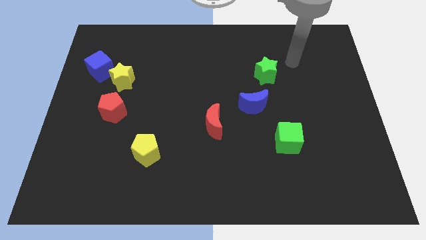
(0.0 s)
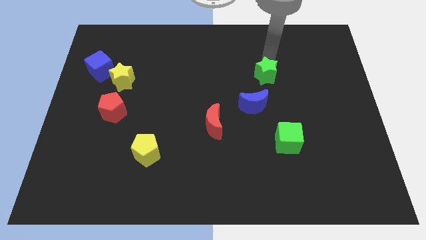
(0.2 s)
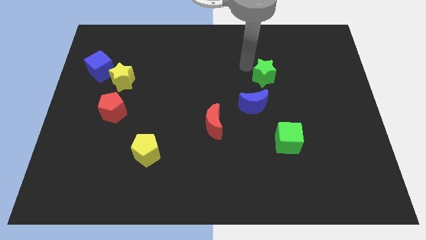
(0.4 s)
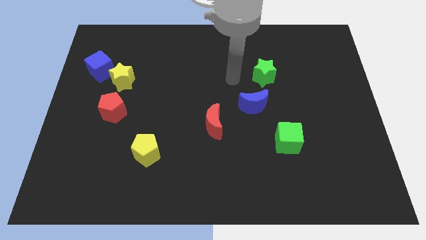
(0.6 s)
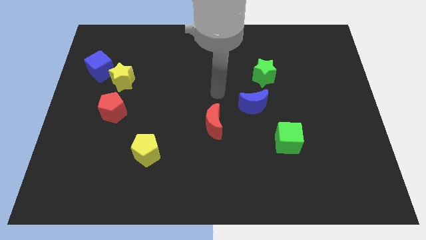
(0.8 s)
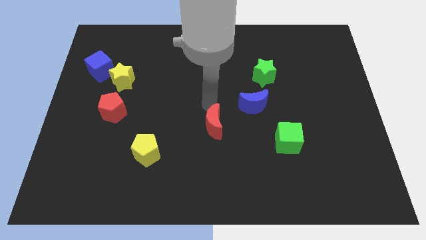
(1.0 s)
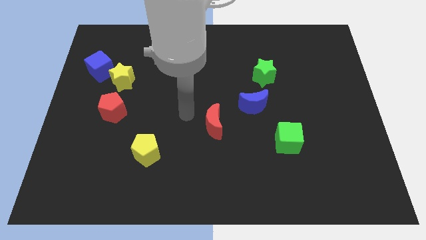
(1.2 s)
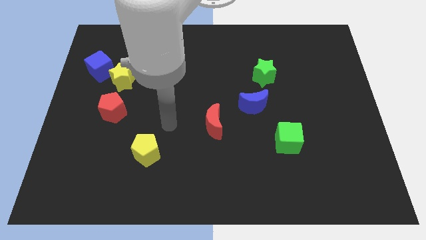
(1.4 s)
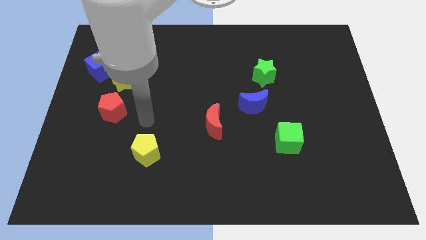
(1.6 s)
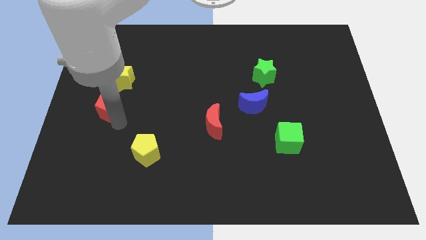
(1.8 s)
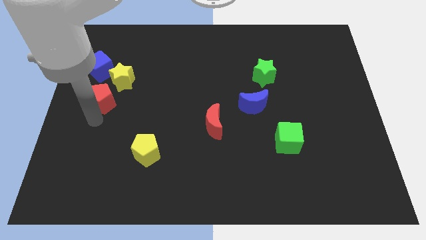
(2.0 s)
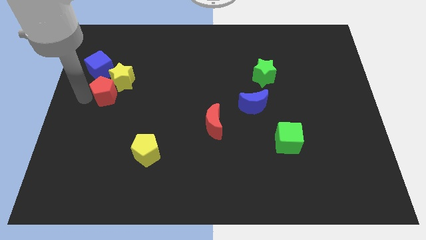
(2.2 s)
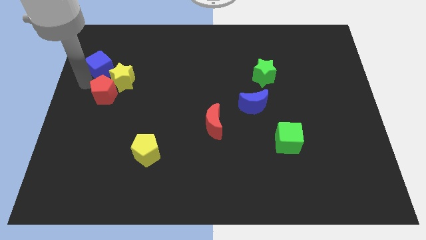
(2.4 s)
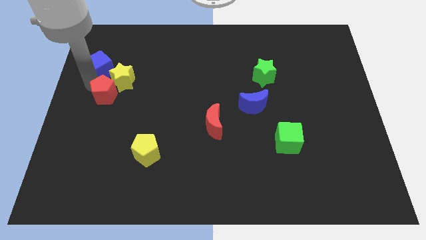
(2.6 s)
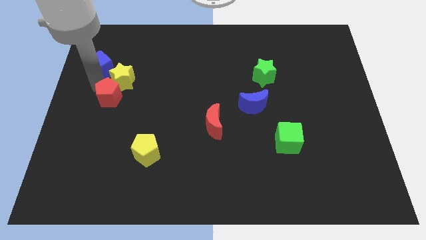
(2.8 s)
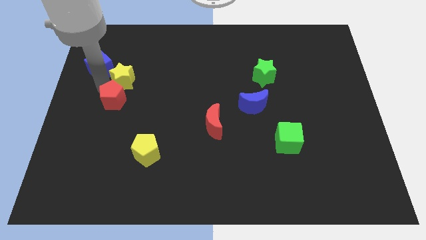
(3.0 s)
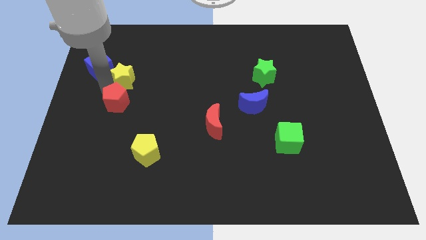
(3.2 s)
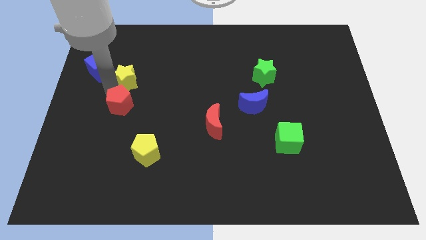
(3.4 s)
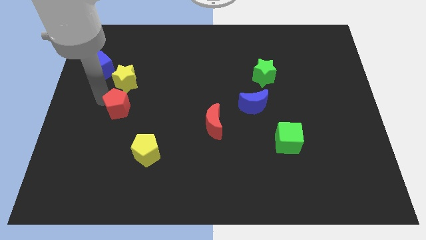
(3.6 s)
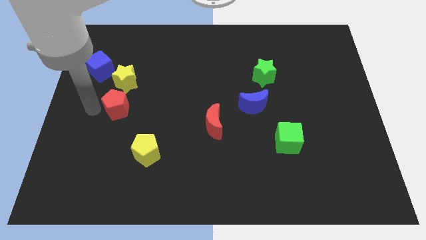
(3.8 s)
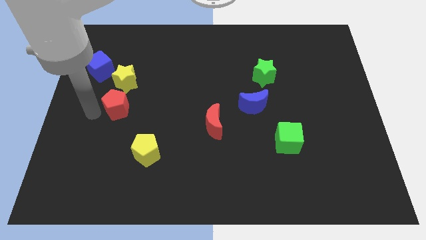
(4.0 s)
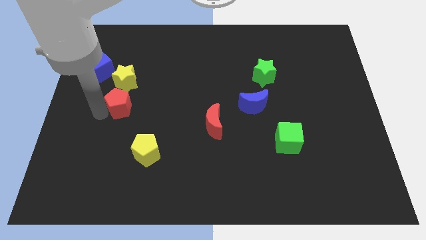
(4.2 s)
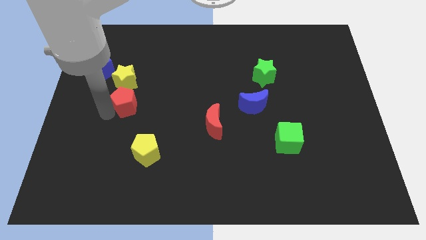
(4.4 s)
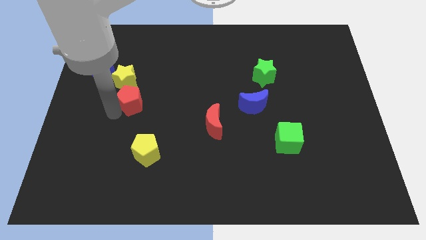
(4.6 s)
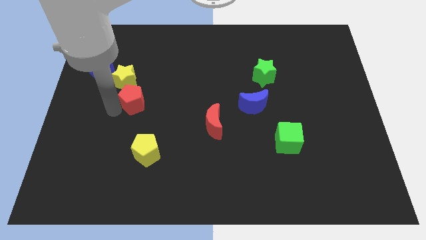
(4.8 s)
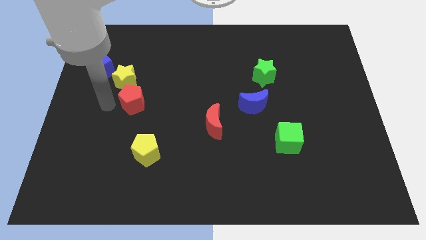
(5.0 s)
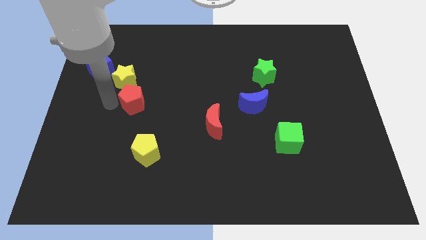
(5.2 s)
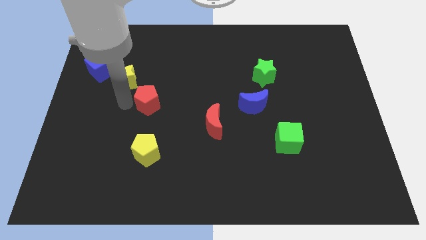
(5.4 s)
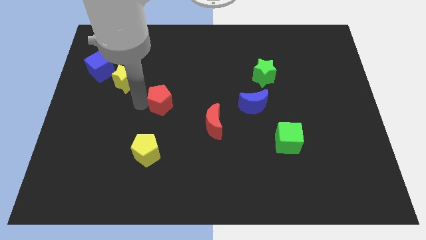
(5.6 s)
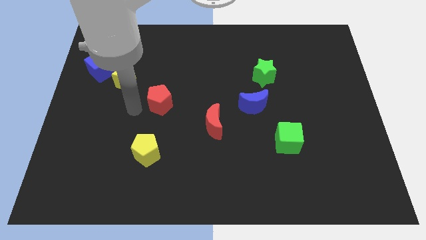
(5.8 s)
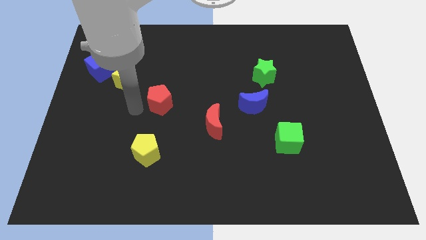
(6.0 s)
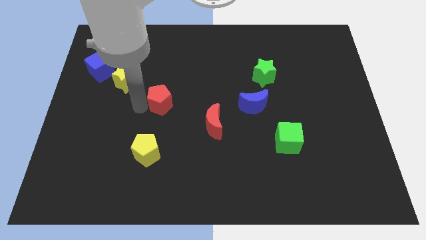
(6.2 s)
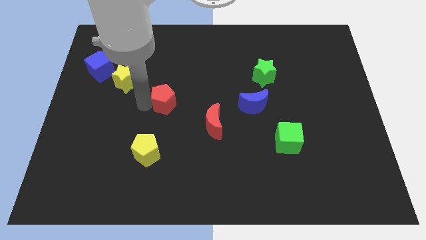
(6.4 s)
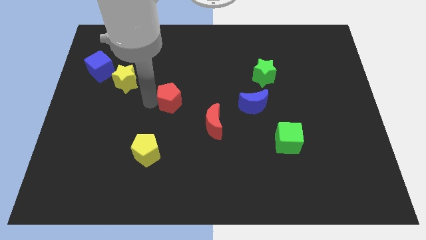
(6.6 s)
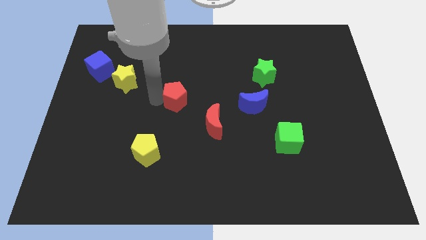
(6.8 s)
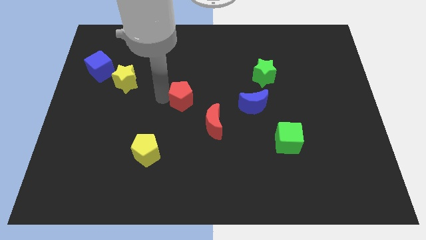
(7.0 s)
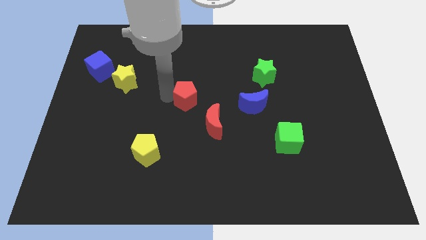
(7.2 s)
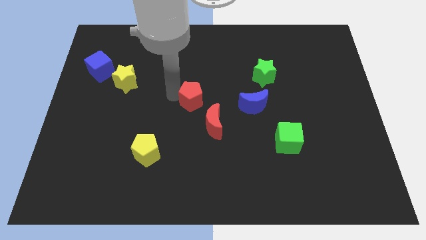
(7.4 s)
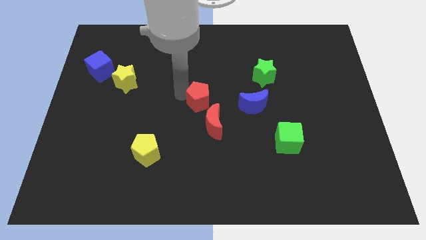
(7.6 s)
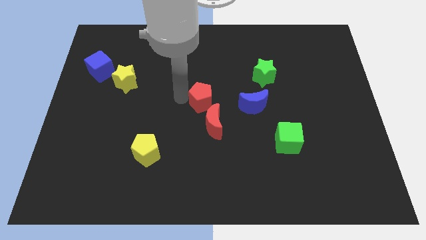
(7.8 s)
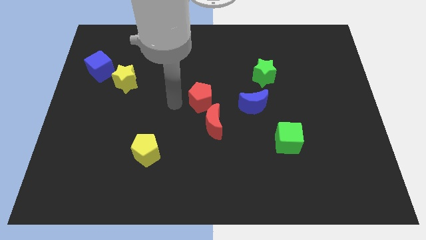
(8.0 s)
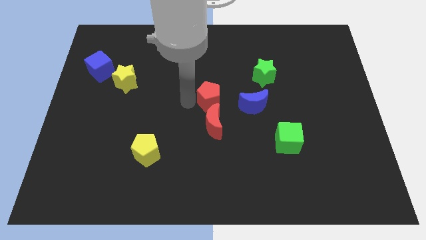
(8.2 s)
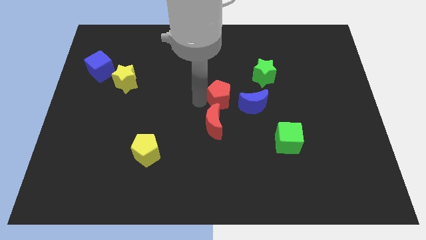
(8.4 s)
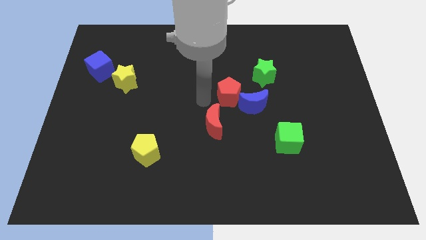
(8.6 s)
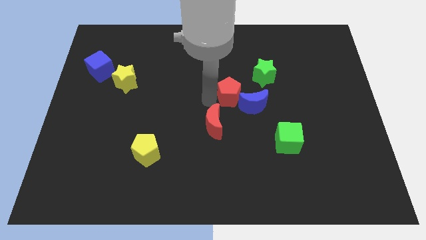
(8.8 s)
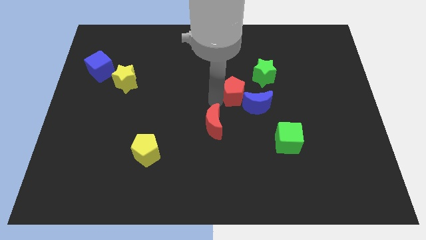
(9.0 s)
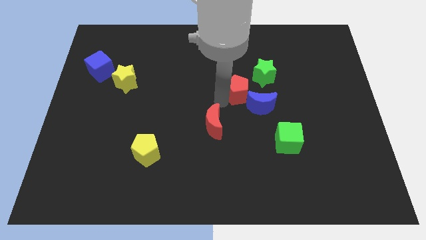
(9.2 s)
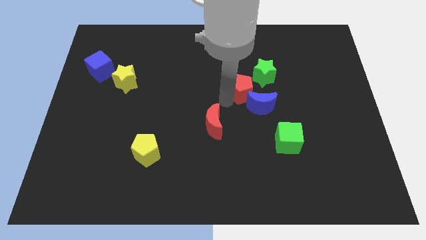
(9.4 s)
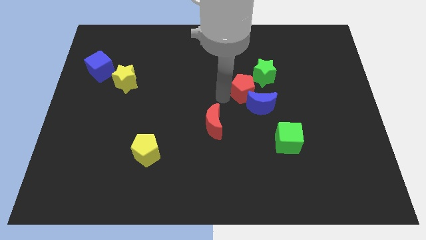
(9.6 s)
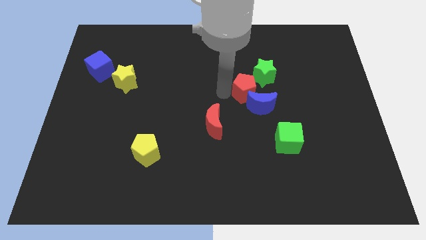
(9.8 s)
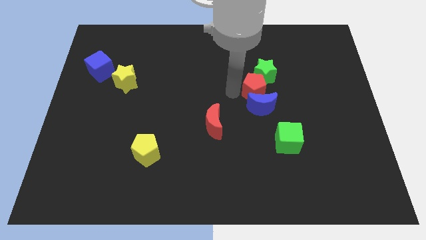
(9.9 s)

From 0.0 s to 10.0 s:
slide the red pentagon diagonally up and to the right of the blue moon

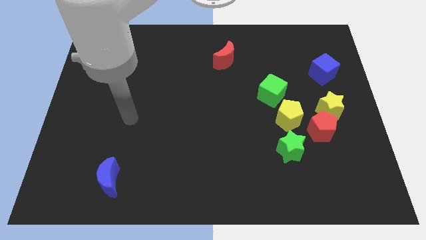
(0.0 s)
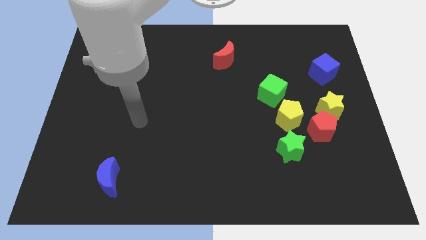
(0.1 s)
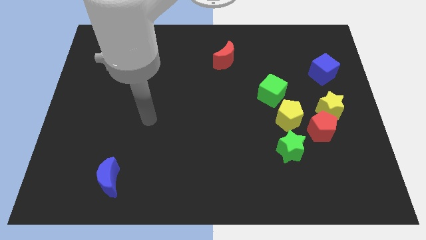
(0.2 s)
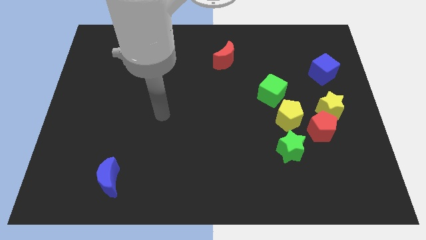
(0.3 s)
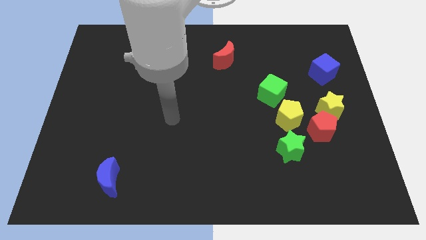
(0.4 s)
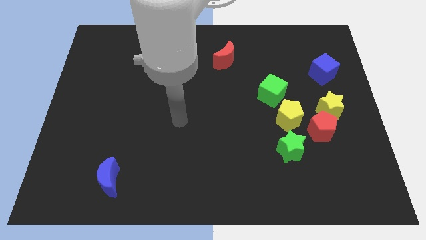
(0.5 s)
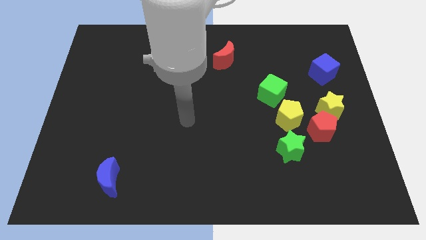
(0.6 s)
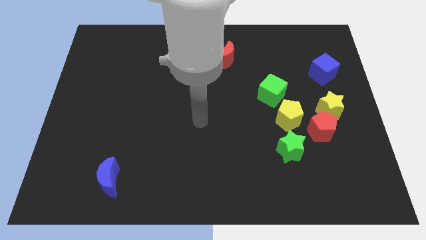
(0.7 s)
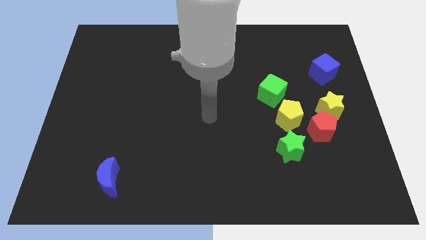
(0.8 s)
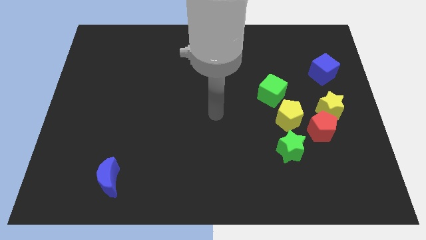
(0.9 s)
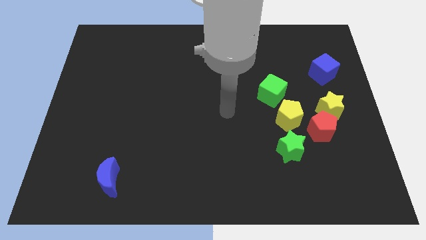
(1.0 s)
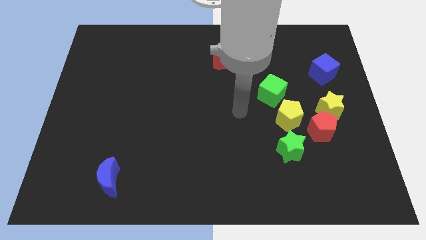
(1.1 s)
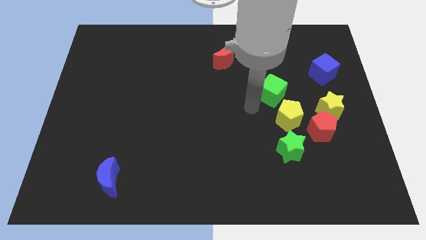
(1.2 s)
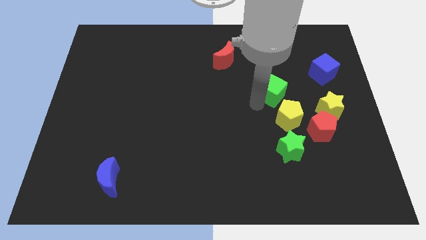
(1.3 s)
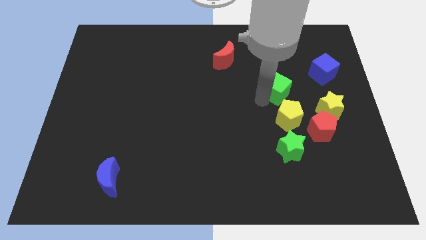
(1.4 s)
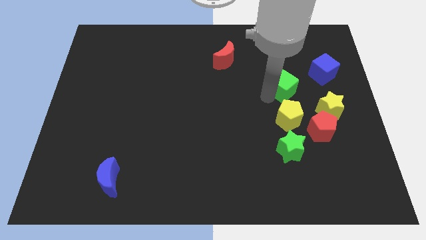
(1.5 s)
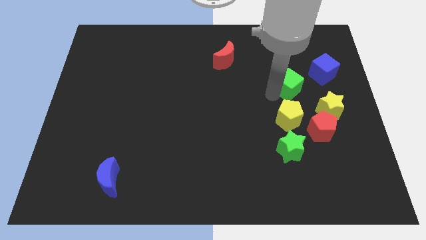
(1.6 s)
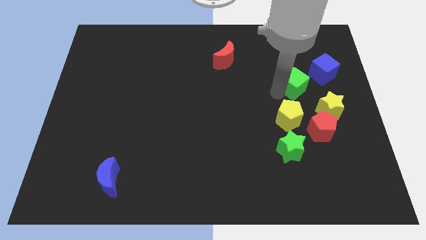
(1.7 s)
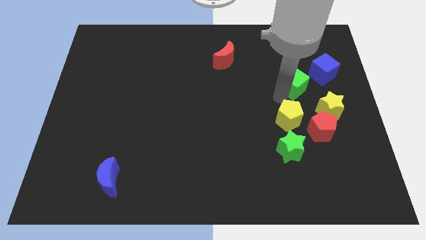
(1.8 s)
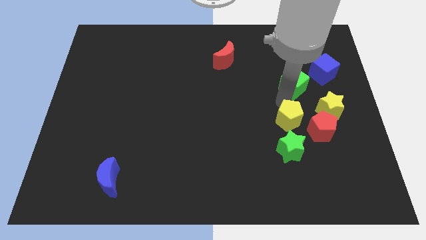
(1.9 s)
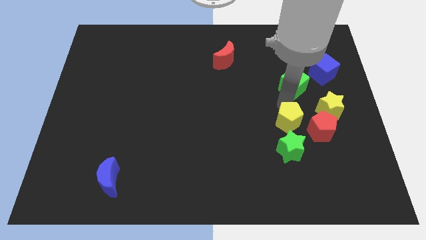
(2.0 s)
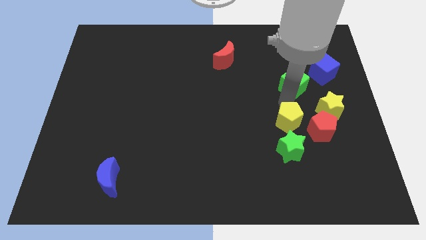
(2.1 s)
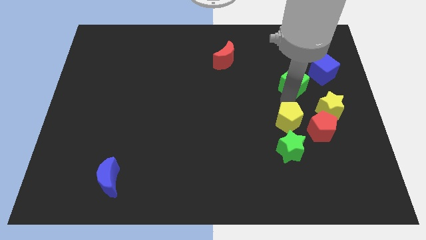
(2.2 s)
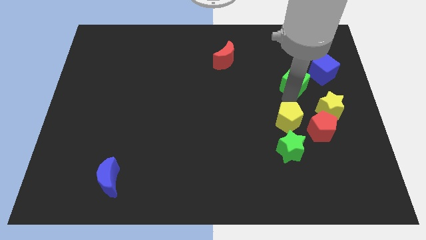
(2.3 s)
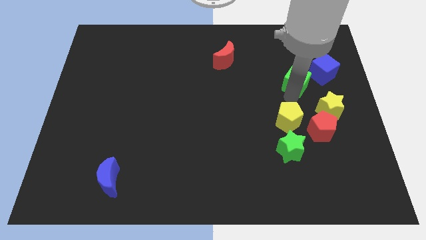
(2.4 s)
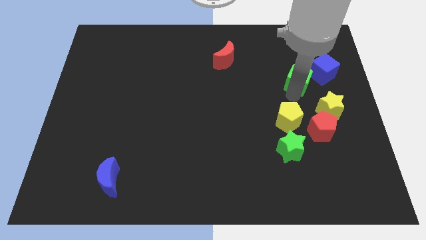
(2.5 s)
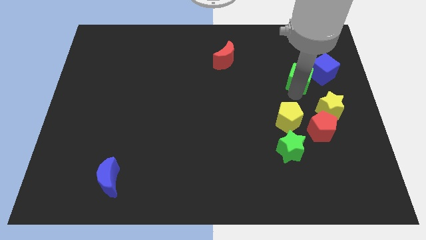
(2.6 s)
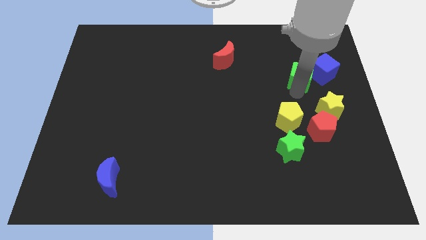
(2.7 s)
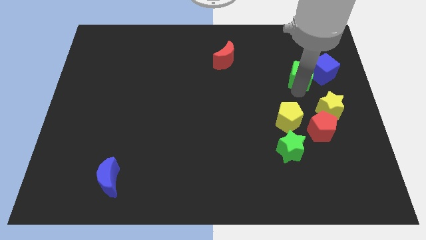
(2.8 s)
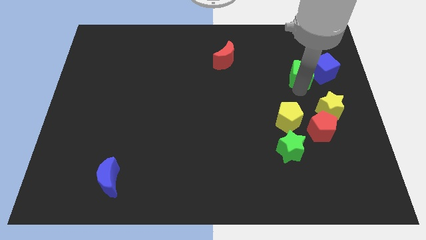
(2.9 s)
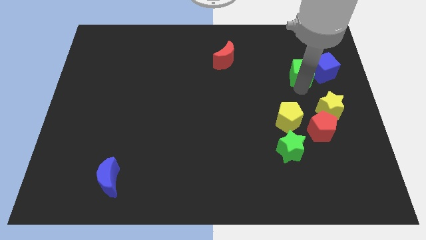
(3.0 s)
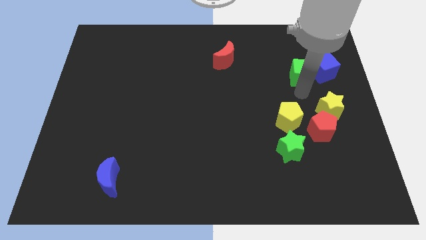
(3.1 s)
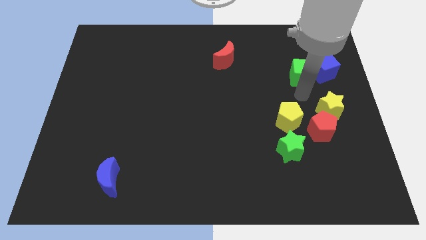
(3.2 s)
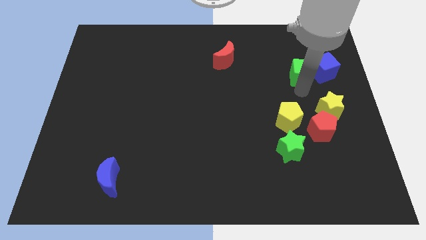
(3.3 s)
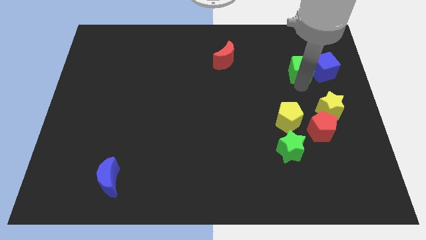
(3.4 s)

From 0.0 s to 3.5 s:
put the green cube diagonally up and to the left of the blue cube
